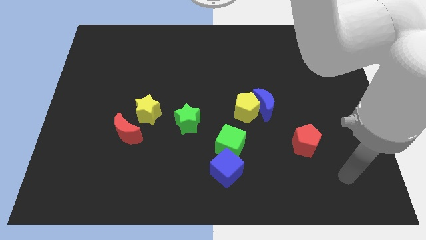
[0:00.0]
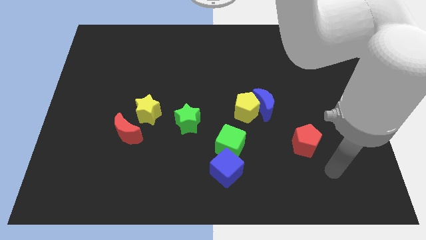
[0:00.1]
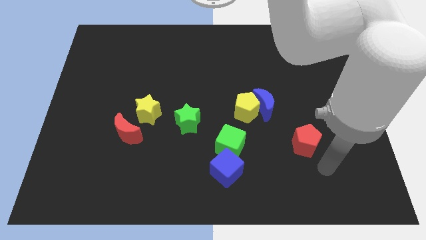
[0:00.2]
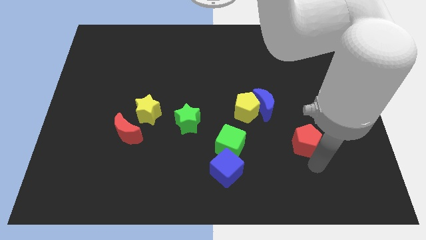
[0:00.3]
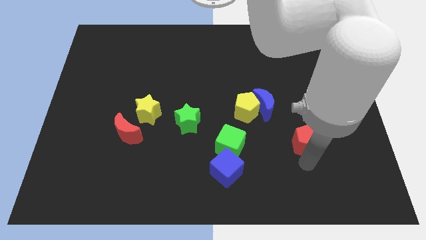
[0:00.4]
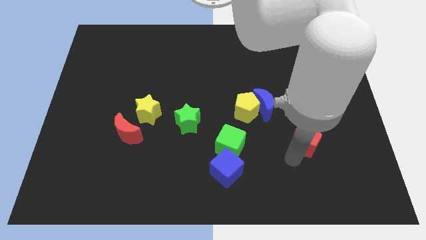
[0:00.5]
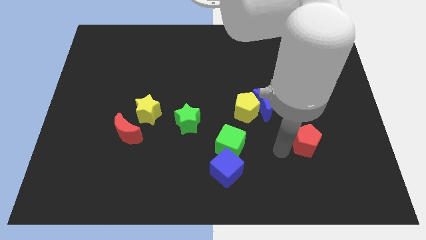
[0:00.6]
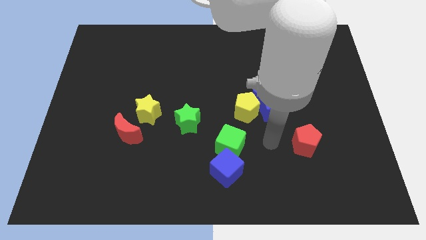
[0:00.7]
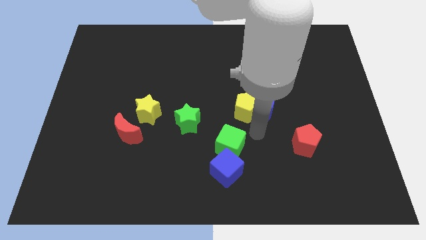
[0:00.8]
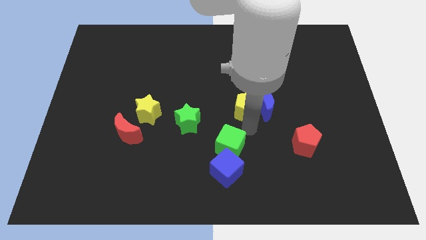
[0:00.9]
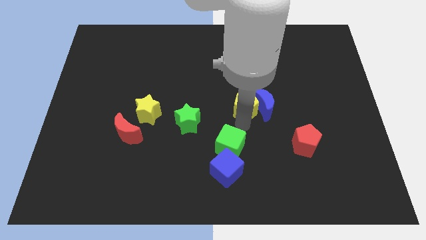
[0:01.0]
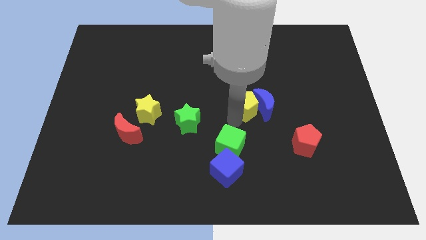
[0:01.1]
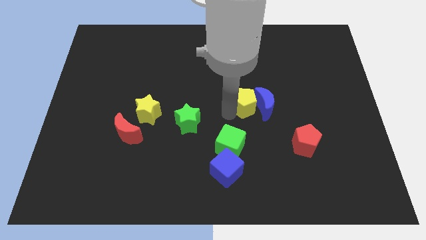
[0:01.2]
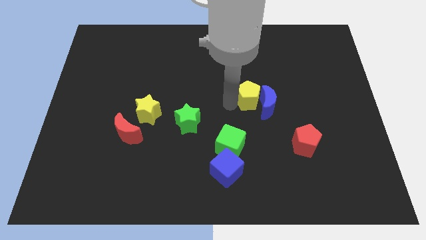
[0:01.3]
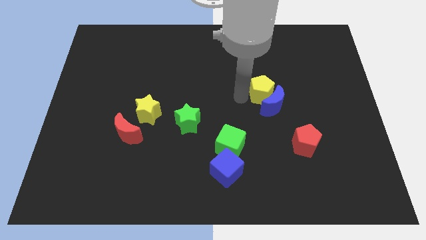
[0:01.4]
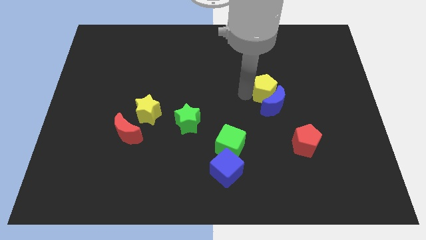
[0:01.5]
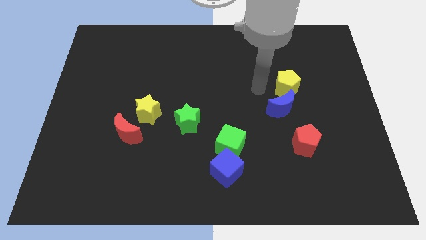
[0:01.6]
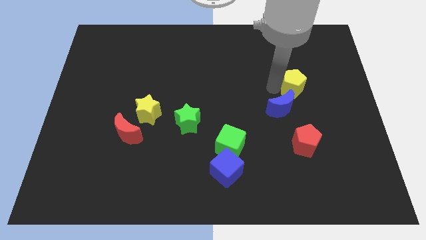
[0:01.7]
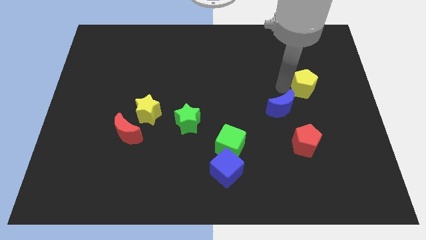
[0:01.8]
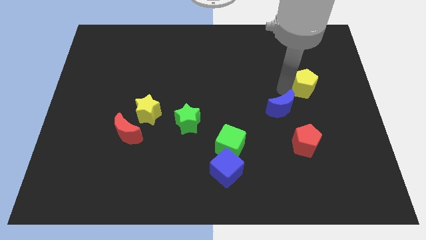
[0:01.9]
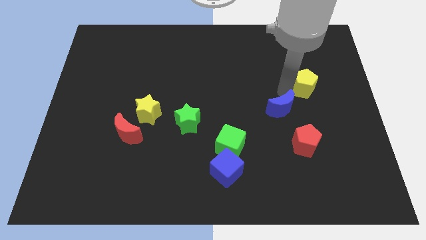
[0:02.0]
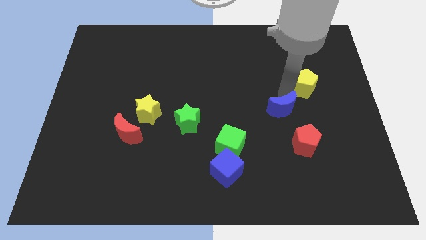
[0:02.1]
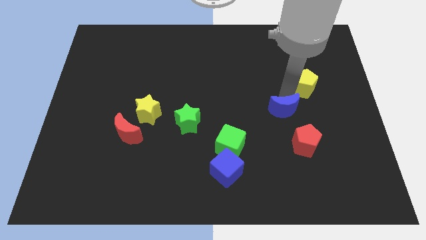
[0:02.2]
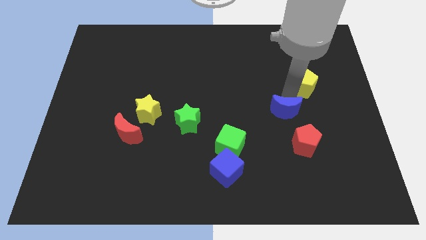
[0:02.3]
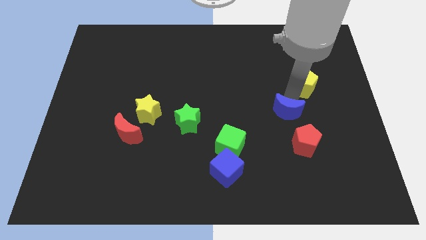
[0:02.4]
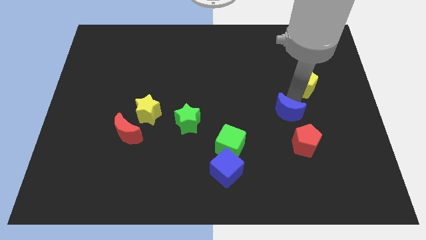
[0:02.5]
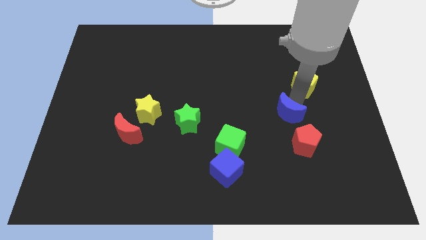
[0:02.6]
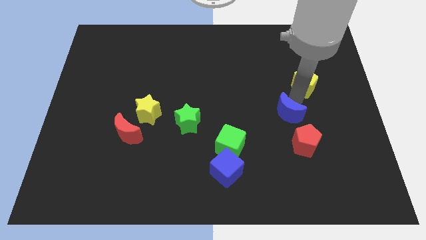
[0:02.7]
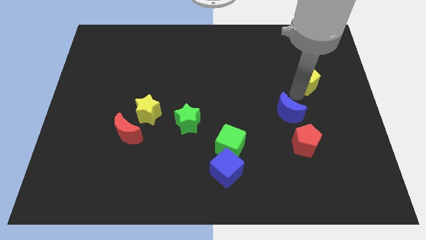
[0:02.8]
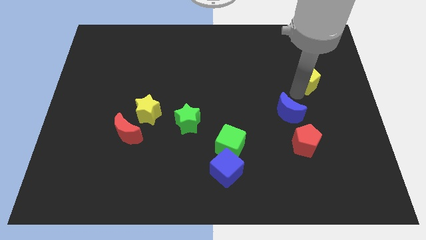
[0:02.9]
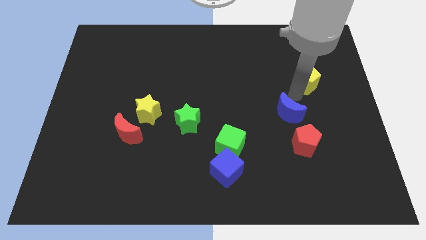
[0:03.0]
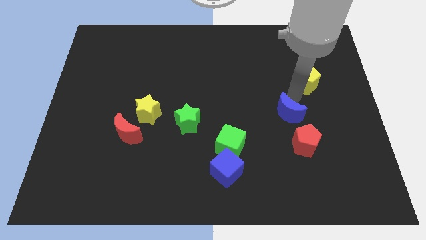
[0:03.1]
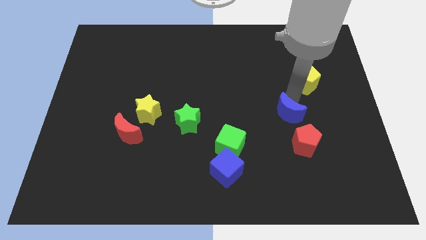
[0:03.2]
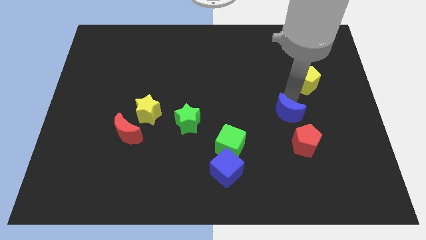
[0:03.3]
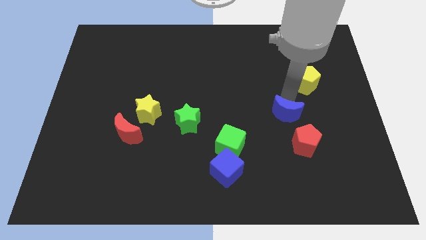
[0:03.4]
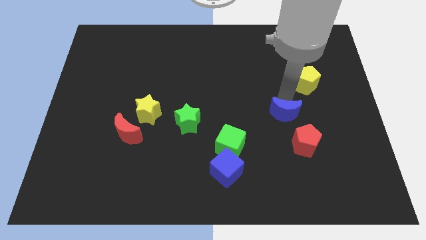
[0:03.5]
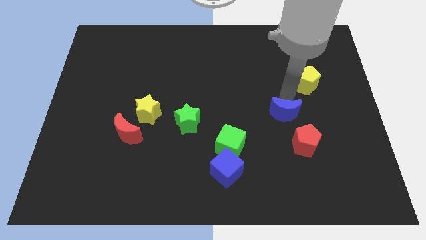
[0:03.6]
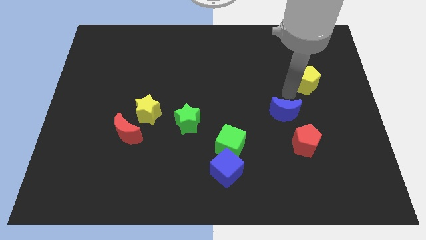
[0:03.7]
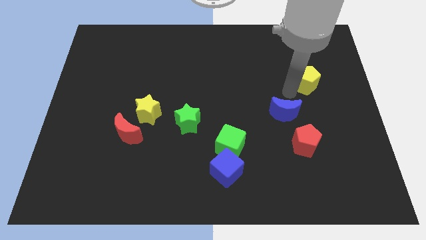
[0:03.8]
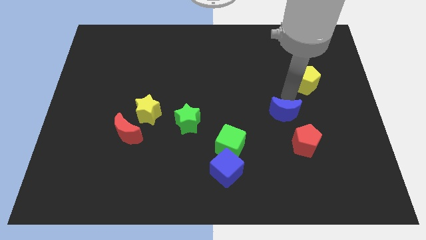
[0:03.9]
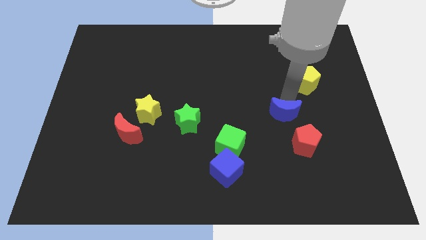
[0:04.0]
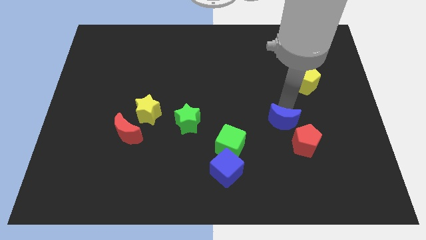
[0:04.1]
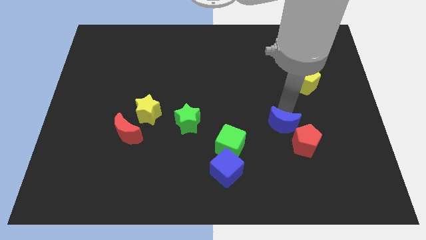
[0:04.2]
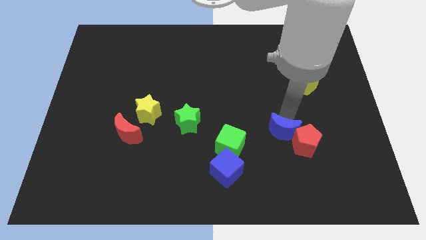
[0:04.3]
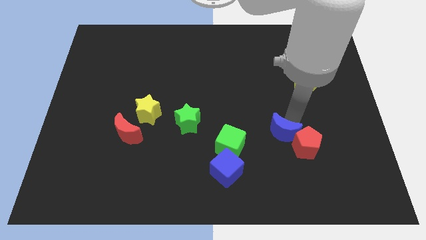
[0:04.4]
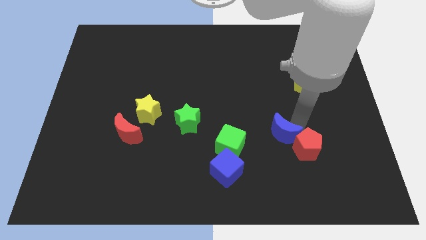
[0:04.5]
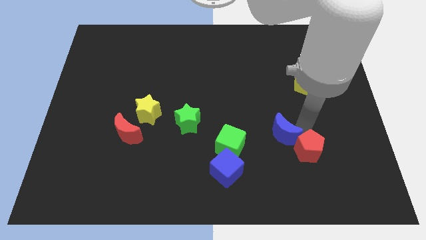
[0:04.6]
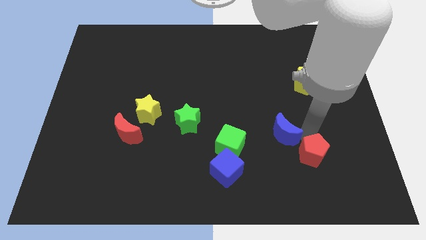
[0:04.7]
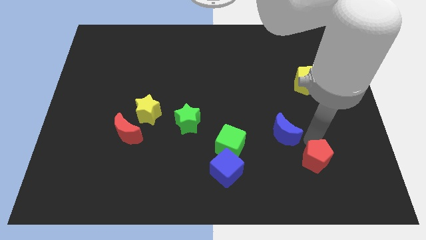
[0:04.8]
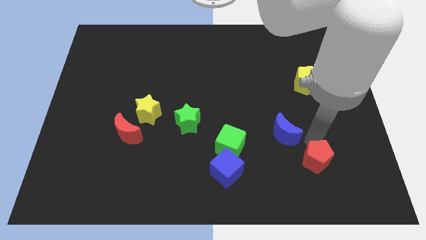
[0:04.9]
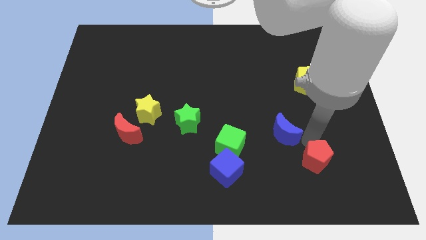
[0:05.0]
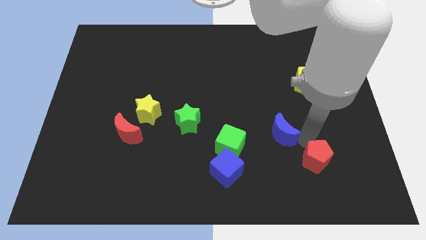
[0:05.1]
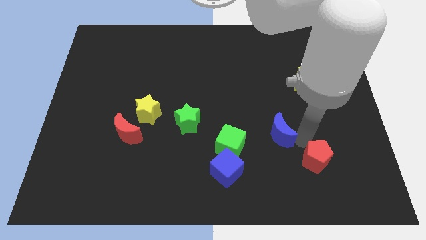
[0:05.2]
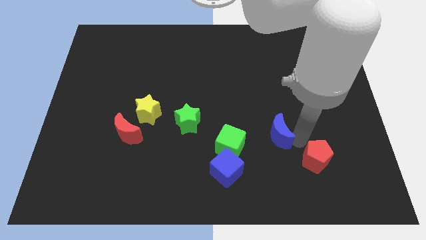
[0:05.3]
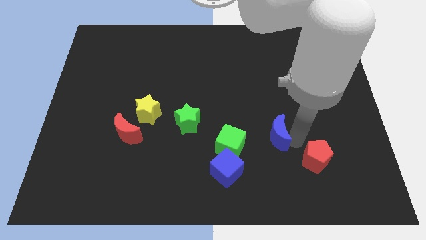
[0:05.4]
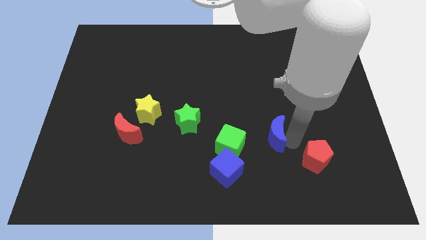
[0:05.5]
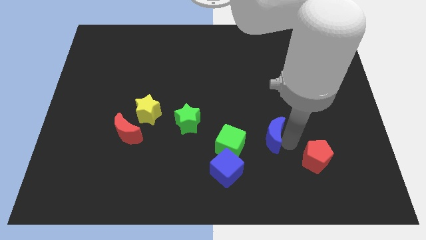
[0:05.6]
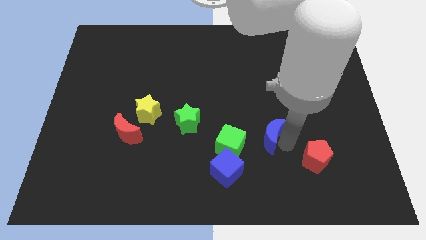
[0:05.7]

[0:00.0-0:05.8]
push the blue moon diagonally up and to the right of the green cube

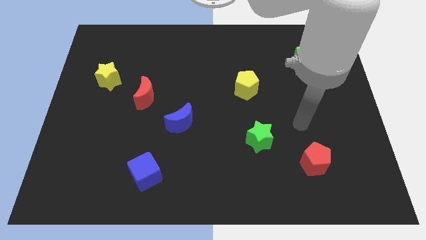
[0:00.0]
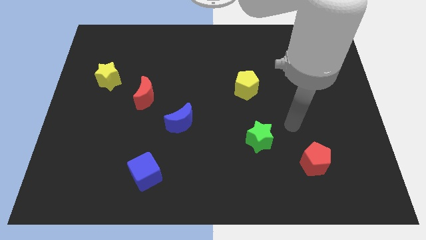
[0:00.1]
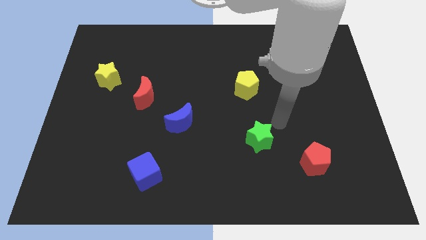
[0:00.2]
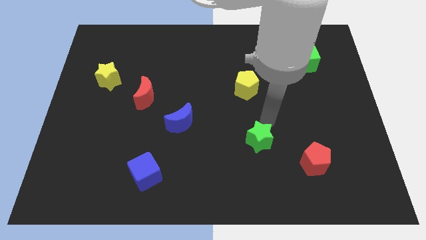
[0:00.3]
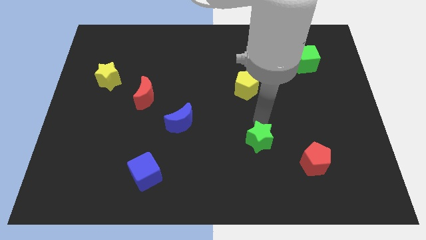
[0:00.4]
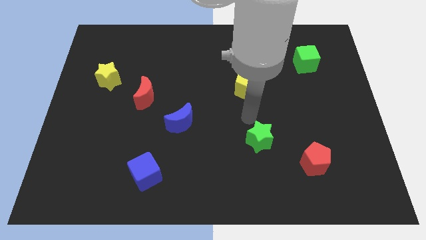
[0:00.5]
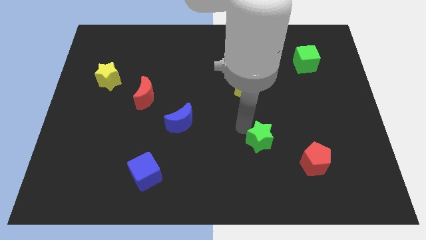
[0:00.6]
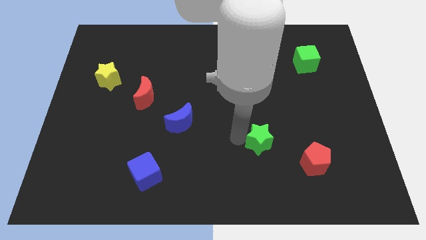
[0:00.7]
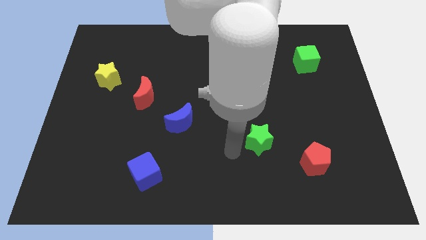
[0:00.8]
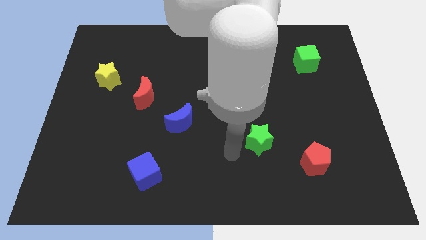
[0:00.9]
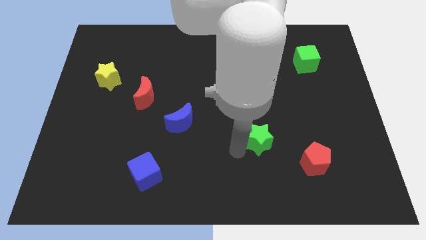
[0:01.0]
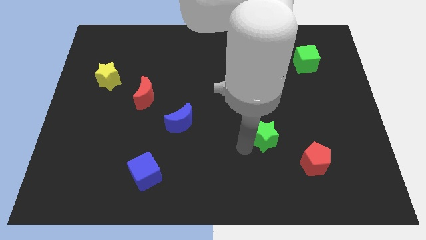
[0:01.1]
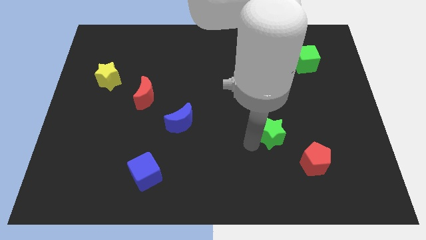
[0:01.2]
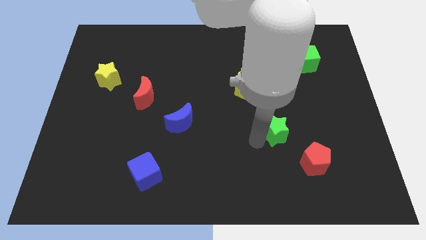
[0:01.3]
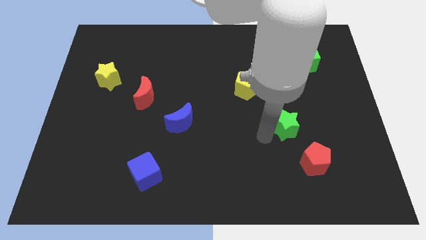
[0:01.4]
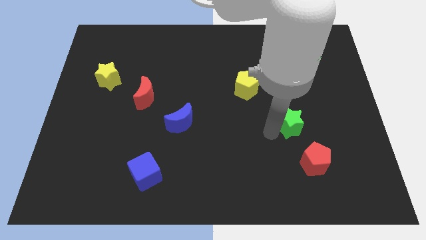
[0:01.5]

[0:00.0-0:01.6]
move the green star above the red pentagon
